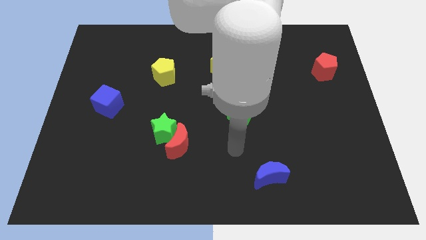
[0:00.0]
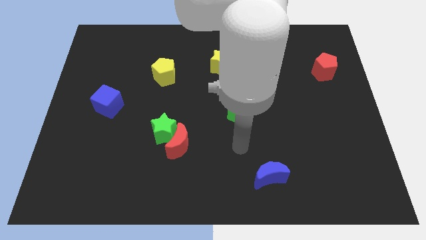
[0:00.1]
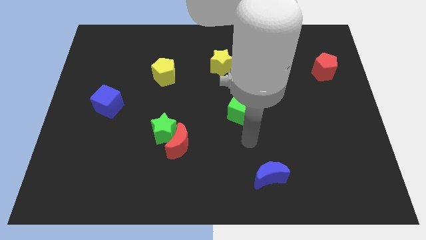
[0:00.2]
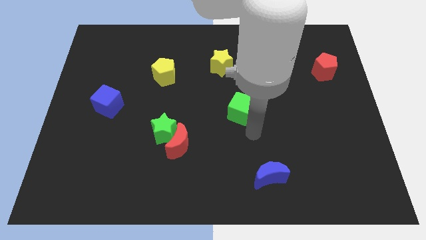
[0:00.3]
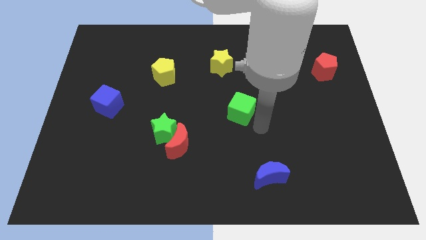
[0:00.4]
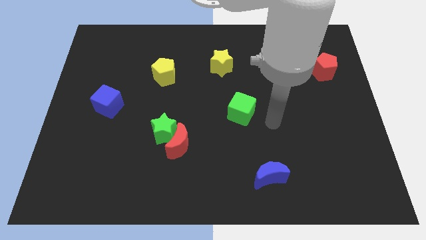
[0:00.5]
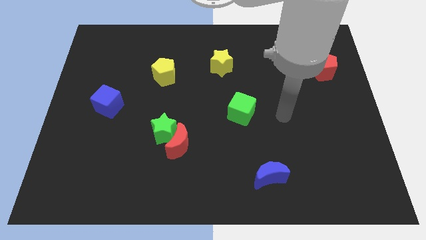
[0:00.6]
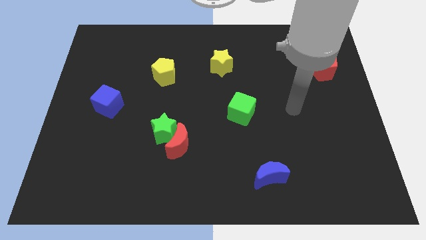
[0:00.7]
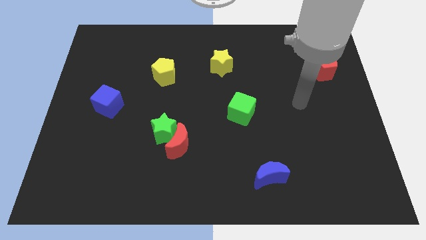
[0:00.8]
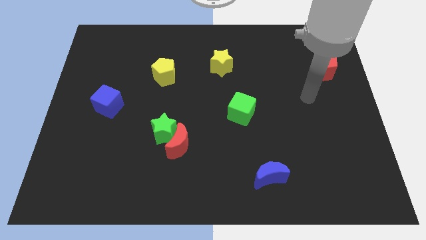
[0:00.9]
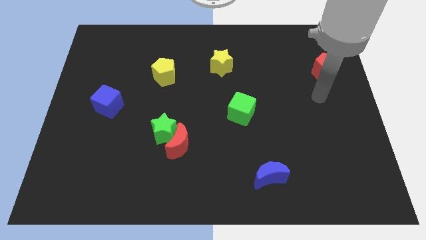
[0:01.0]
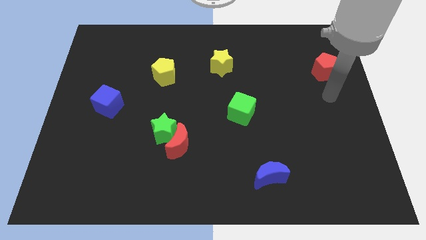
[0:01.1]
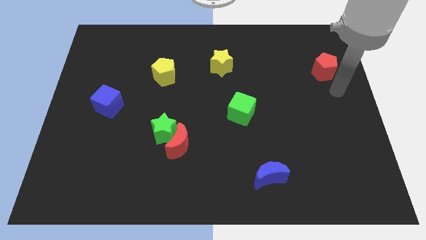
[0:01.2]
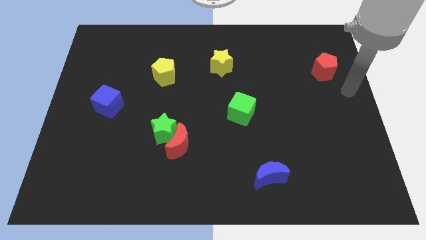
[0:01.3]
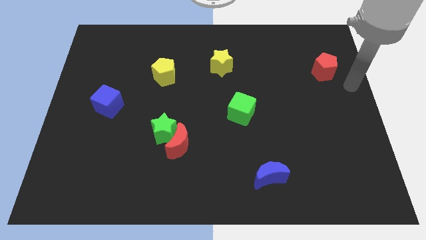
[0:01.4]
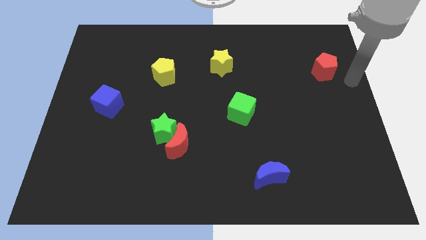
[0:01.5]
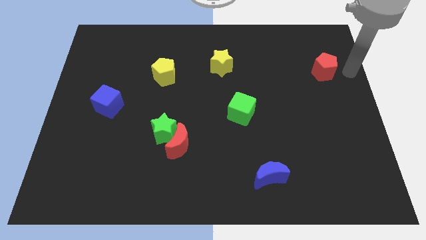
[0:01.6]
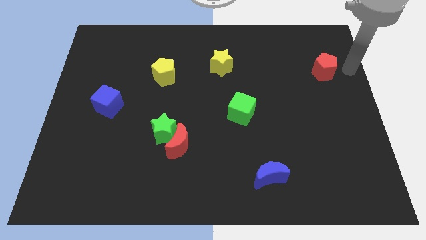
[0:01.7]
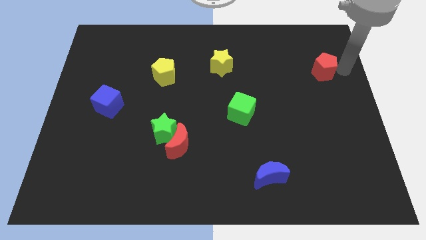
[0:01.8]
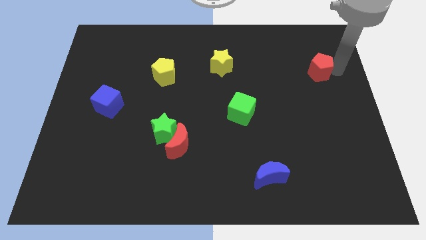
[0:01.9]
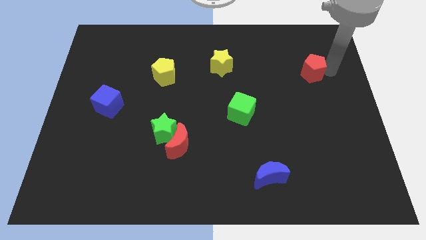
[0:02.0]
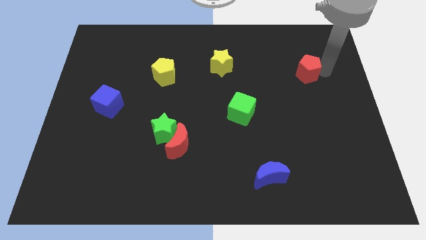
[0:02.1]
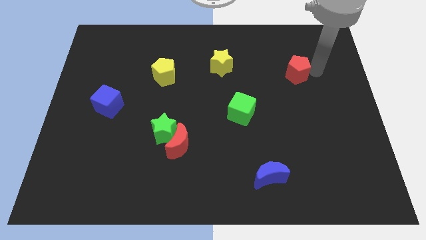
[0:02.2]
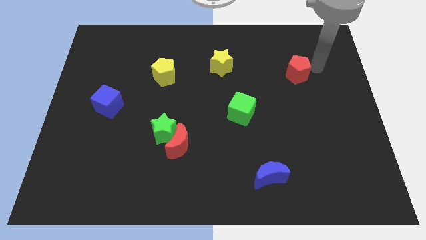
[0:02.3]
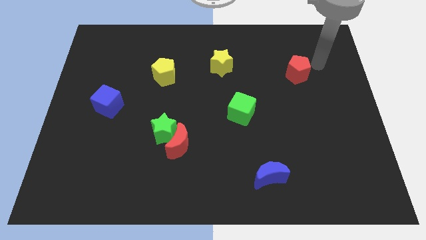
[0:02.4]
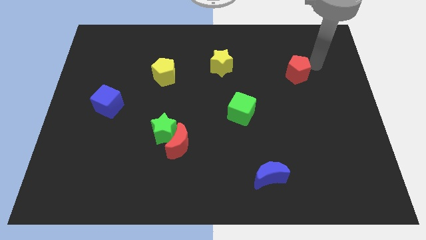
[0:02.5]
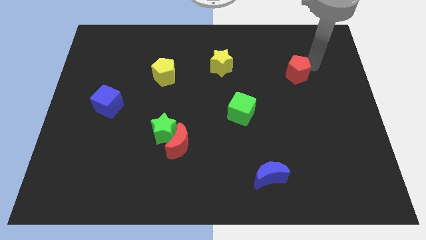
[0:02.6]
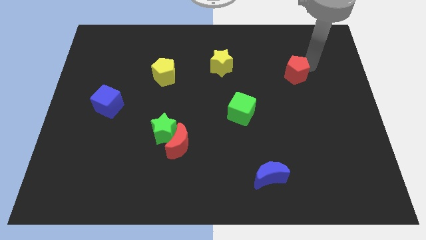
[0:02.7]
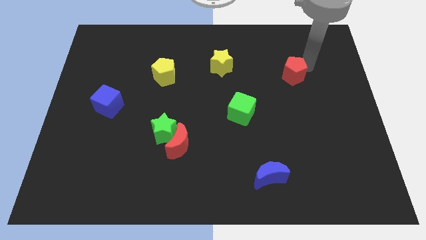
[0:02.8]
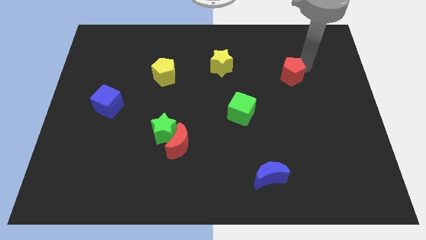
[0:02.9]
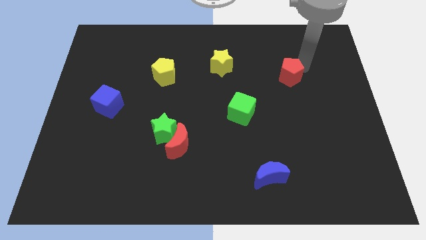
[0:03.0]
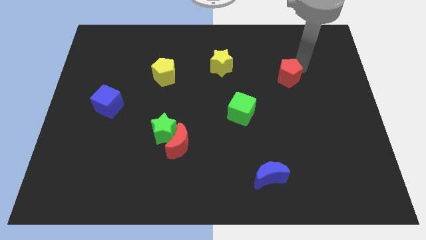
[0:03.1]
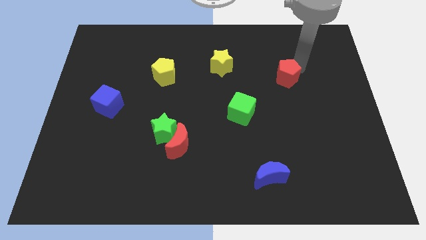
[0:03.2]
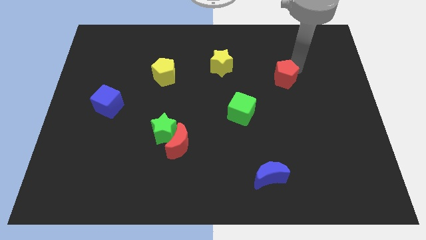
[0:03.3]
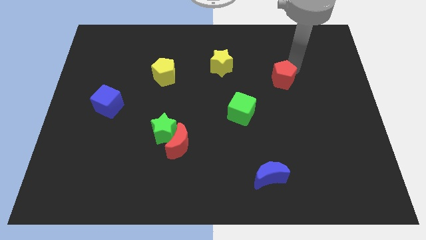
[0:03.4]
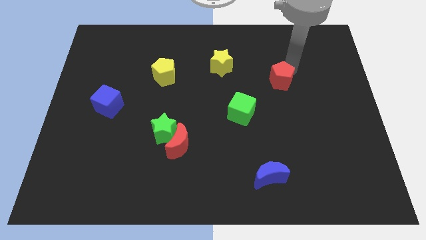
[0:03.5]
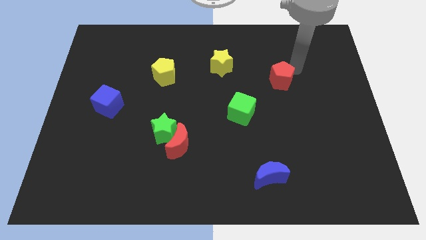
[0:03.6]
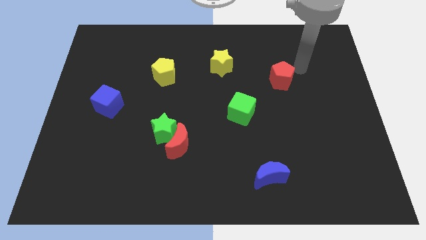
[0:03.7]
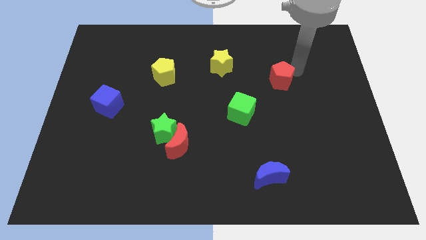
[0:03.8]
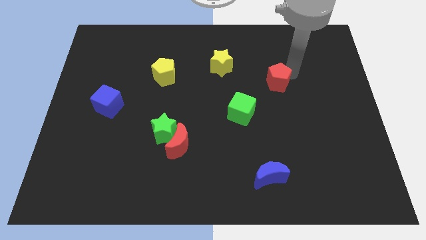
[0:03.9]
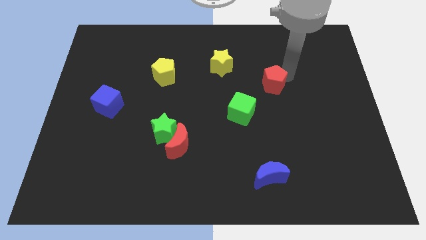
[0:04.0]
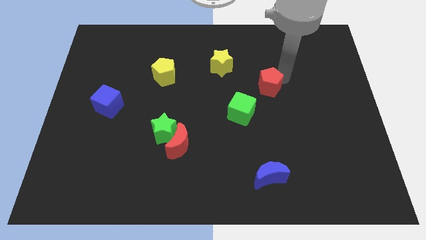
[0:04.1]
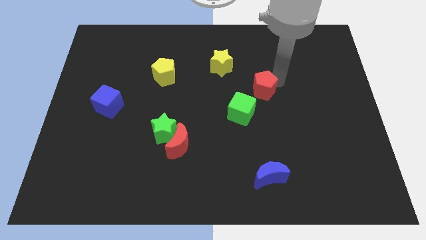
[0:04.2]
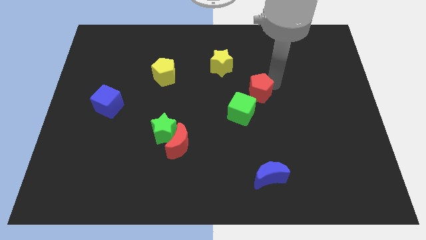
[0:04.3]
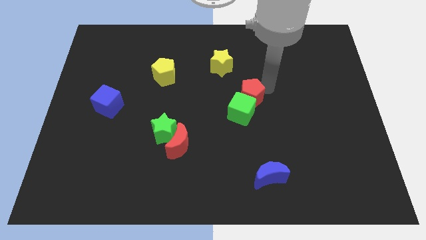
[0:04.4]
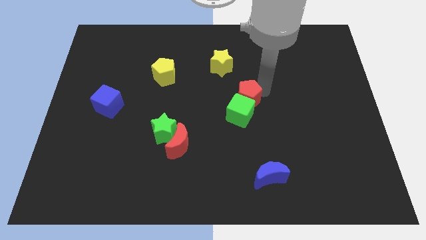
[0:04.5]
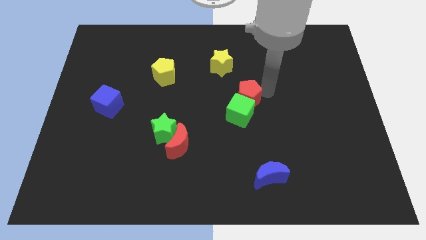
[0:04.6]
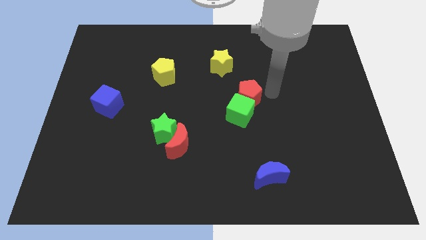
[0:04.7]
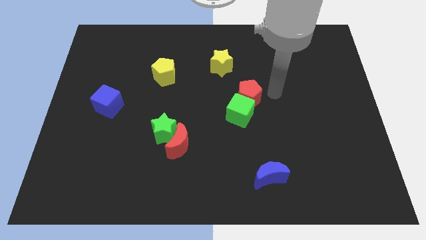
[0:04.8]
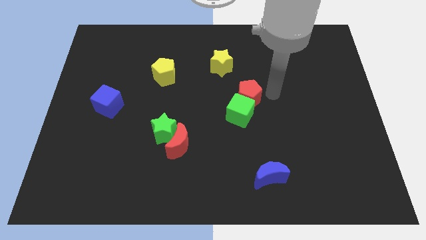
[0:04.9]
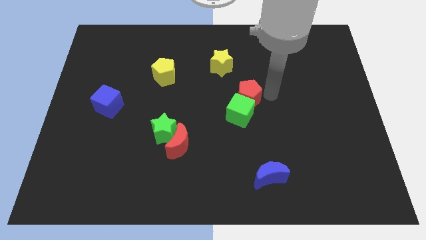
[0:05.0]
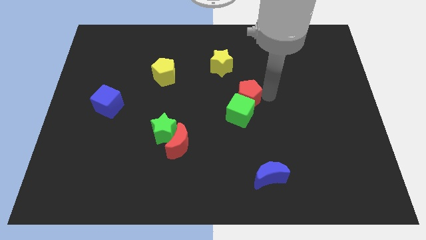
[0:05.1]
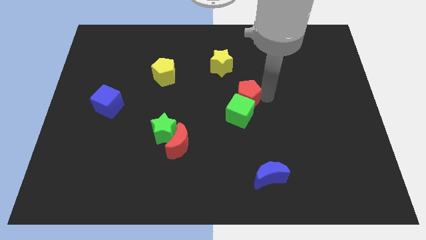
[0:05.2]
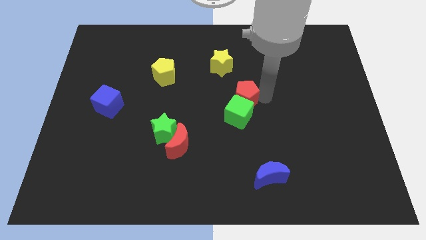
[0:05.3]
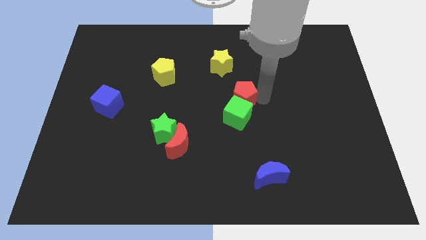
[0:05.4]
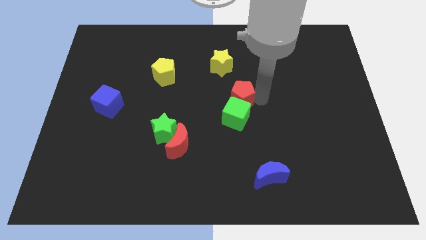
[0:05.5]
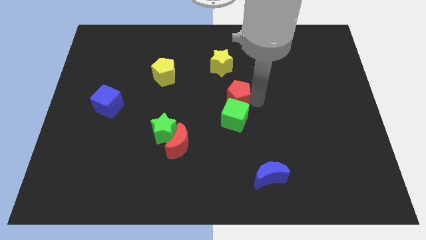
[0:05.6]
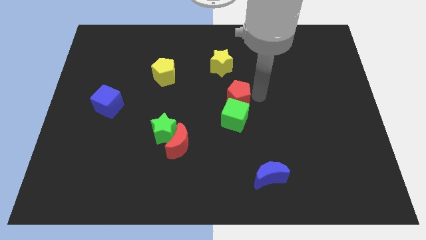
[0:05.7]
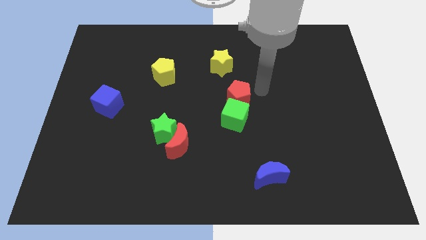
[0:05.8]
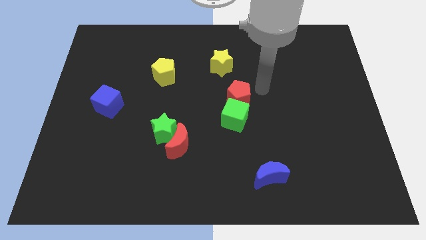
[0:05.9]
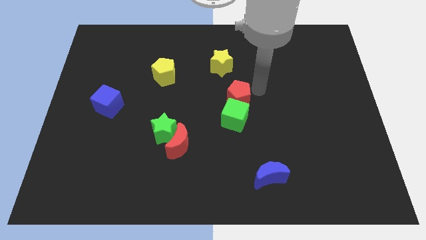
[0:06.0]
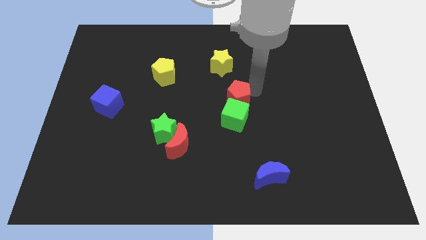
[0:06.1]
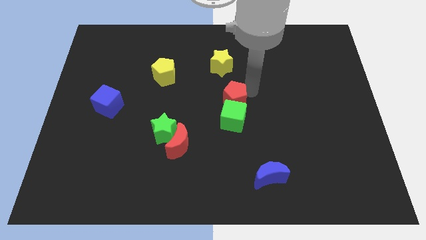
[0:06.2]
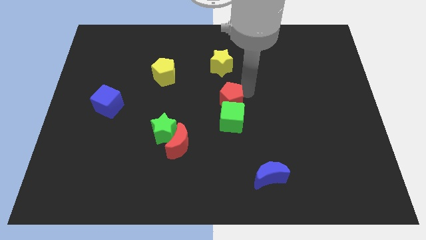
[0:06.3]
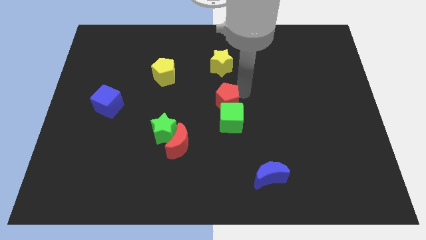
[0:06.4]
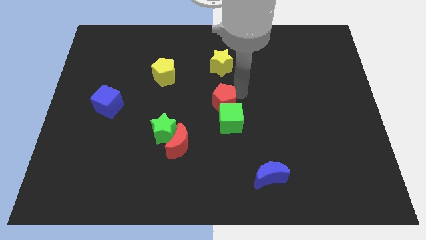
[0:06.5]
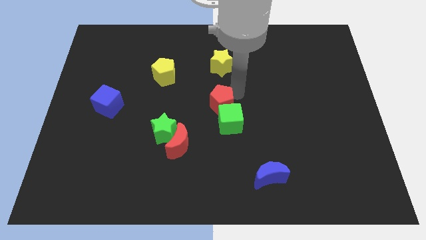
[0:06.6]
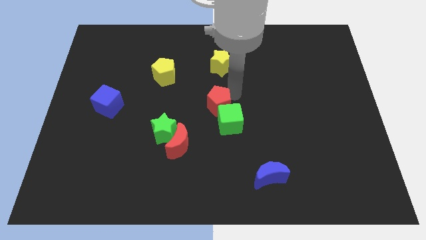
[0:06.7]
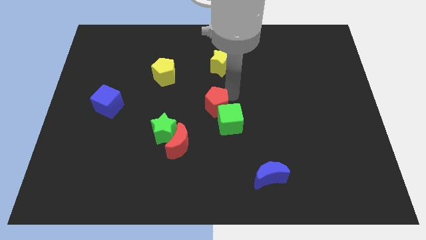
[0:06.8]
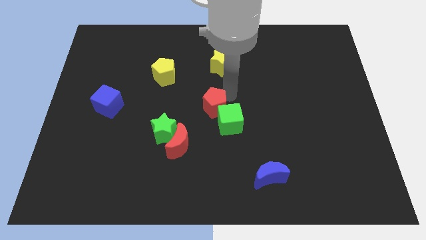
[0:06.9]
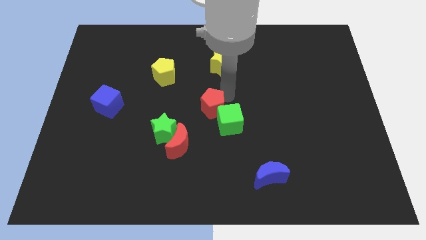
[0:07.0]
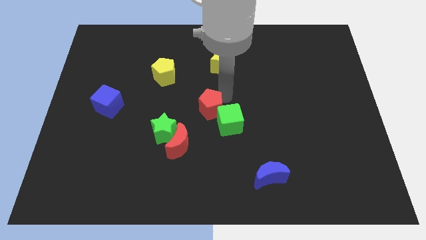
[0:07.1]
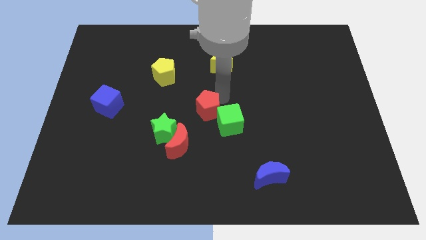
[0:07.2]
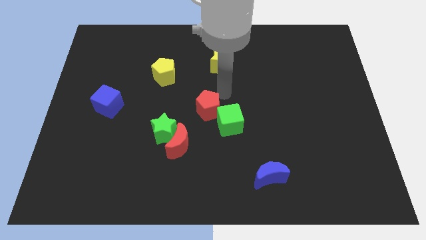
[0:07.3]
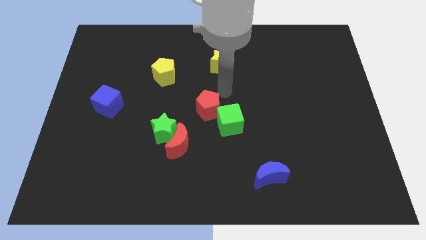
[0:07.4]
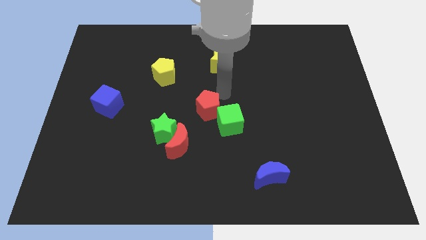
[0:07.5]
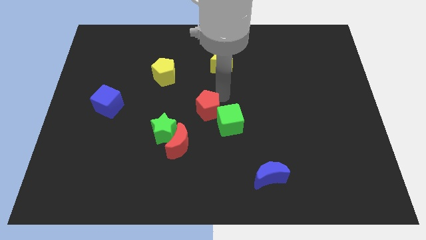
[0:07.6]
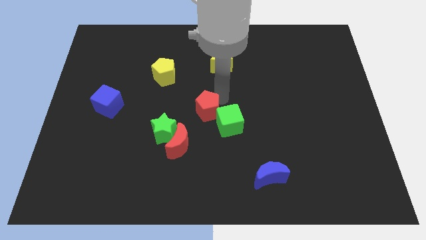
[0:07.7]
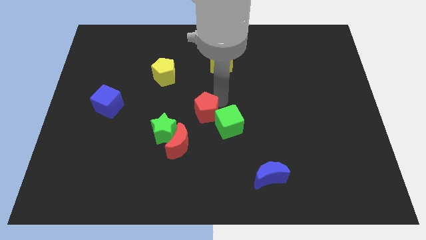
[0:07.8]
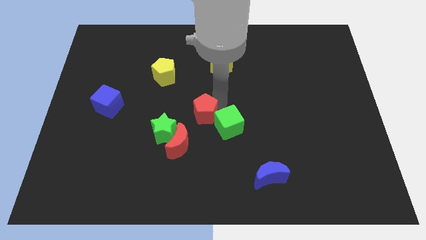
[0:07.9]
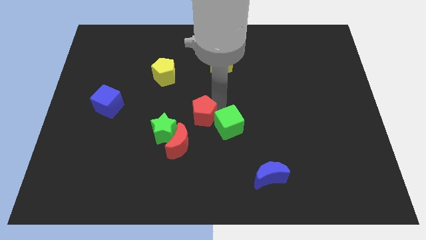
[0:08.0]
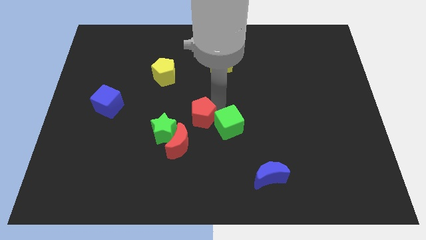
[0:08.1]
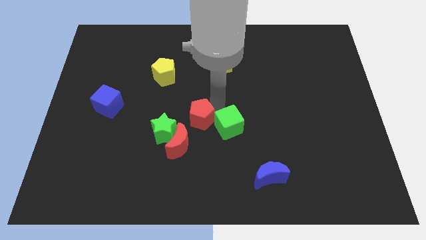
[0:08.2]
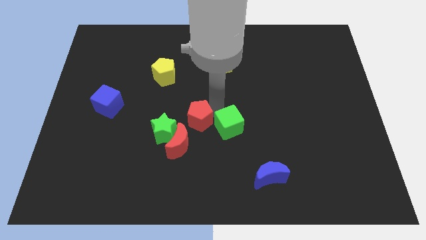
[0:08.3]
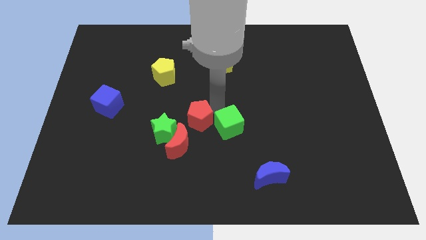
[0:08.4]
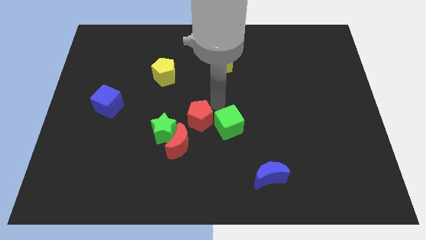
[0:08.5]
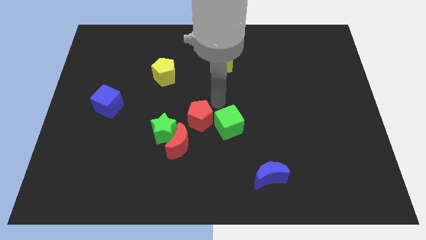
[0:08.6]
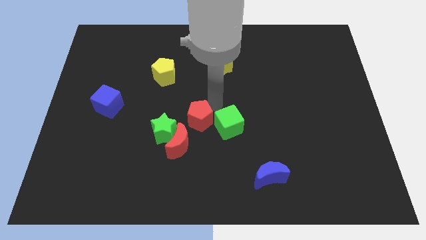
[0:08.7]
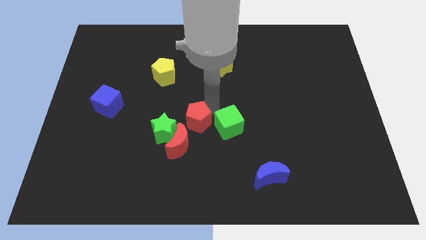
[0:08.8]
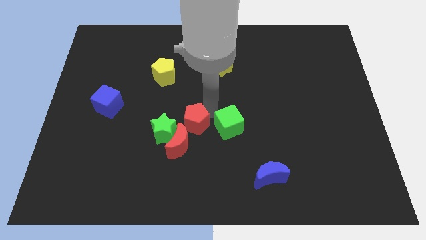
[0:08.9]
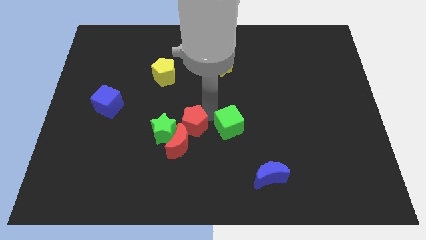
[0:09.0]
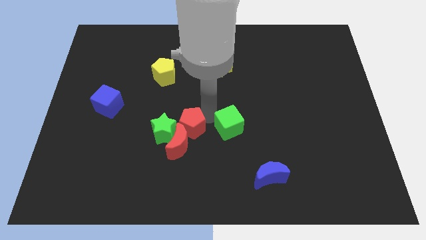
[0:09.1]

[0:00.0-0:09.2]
move the red pentagon close to the green star
